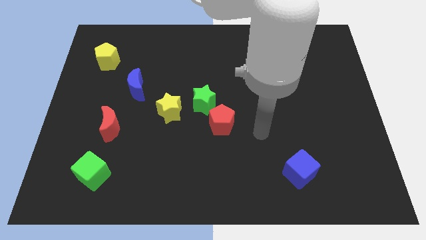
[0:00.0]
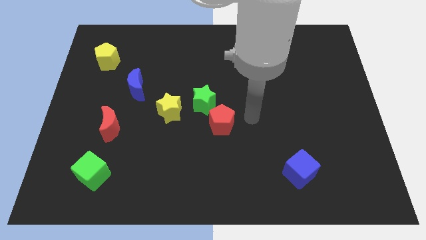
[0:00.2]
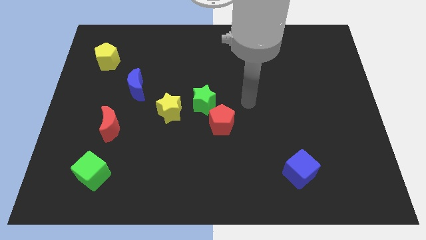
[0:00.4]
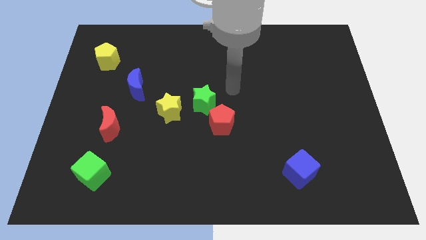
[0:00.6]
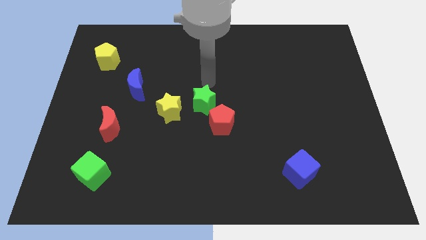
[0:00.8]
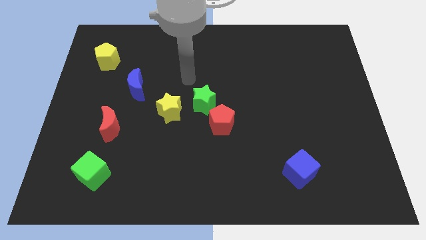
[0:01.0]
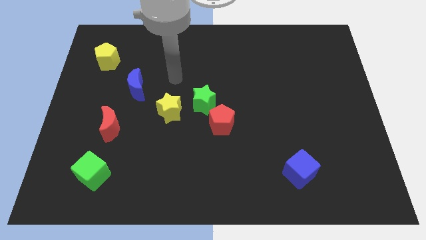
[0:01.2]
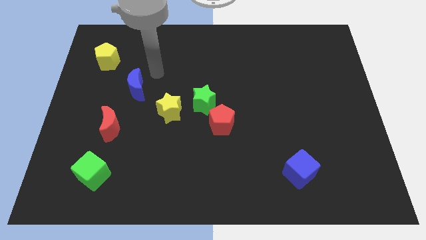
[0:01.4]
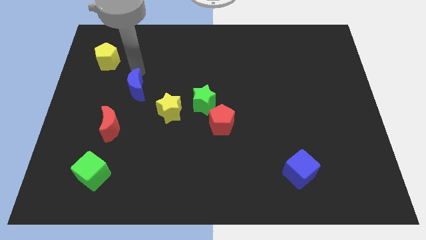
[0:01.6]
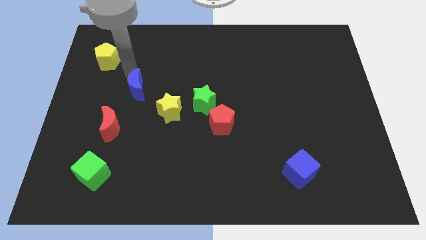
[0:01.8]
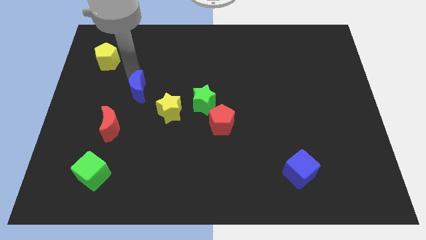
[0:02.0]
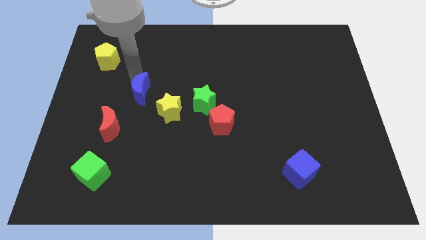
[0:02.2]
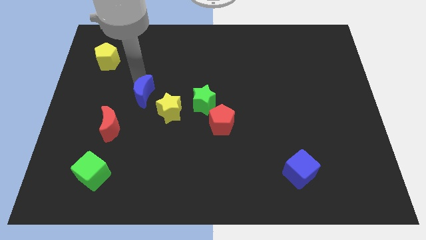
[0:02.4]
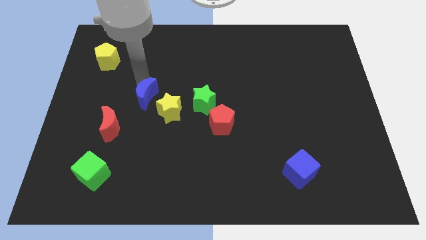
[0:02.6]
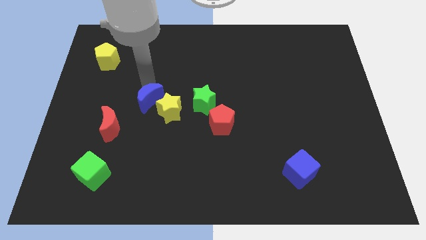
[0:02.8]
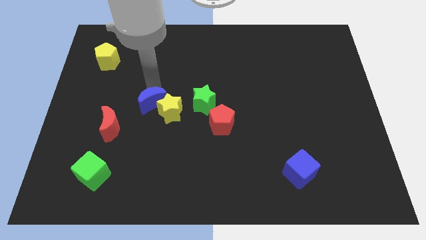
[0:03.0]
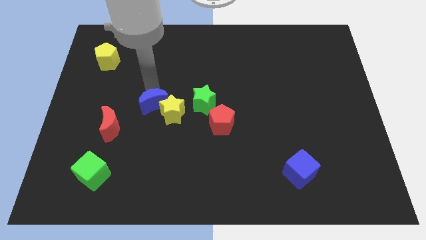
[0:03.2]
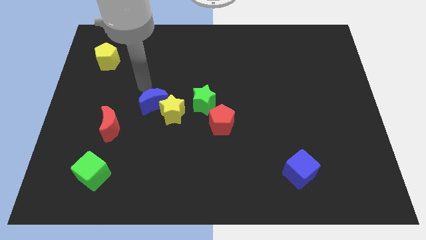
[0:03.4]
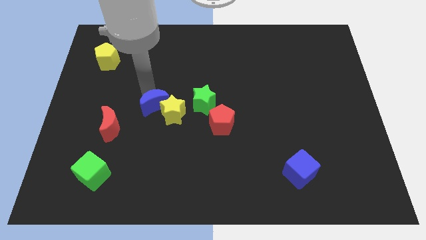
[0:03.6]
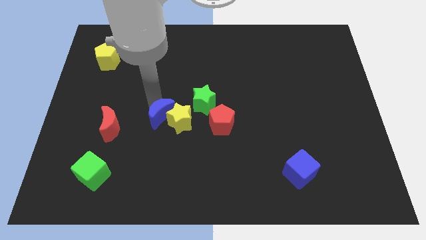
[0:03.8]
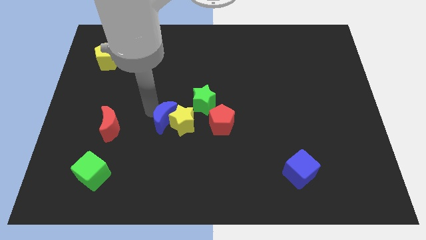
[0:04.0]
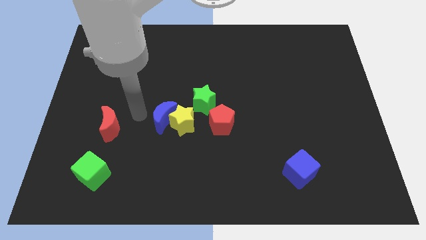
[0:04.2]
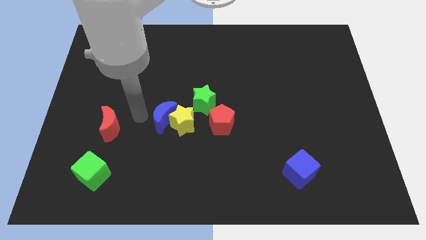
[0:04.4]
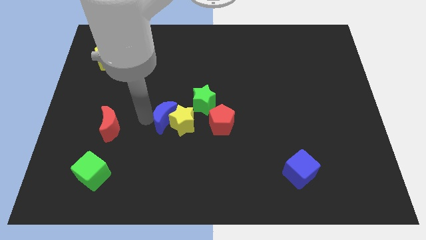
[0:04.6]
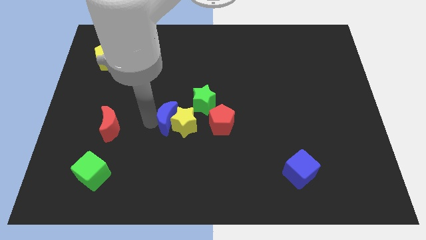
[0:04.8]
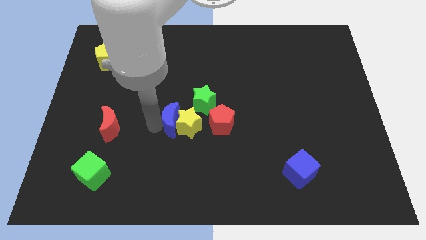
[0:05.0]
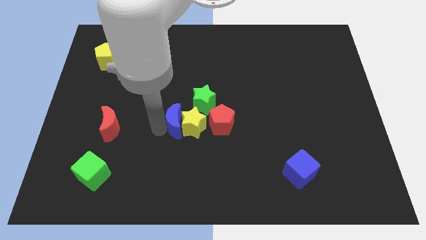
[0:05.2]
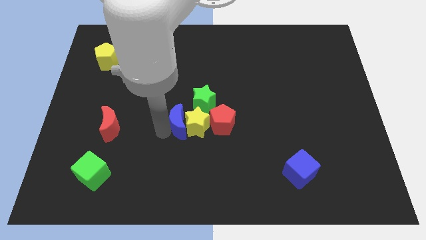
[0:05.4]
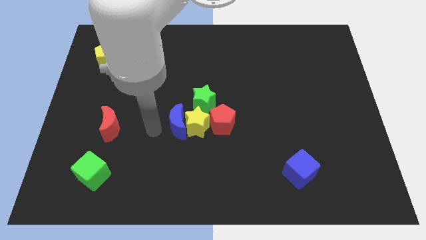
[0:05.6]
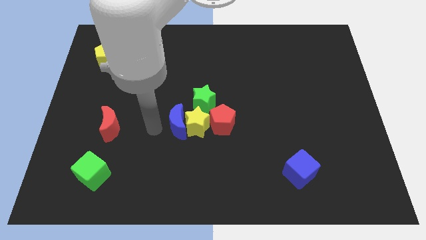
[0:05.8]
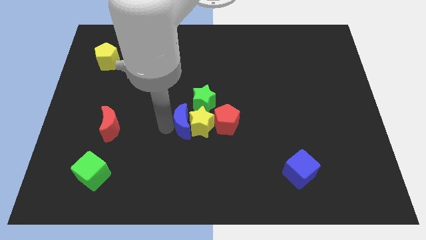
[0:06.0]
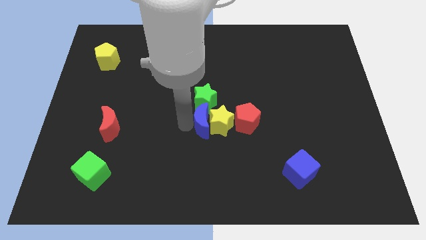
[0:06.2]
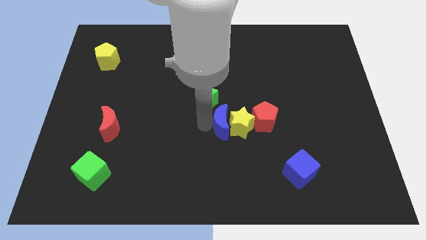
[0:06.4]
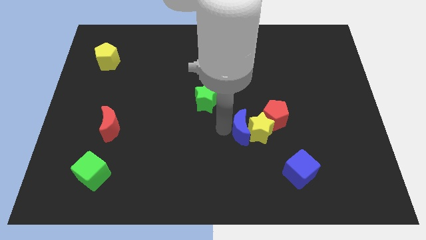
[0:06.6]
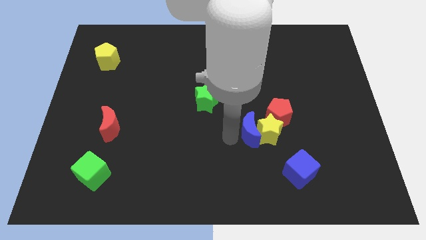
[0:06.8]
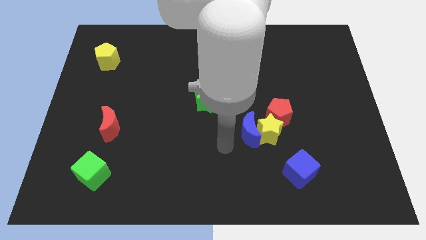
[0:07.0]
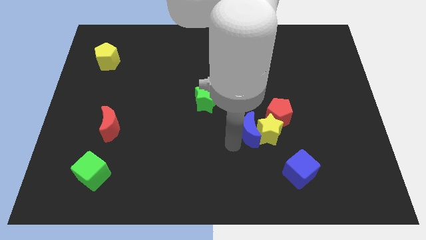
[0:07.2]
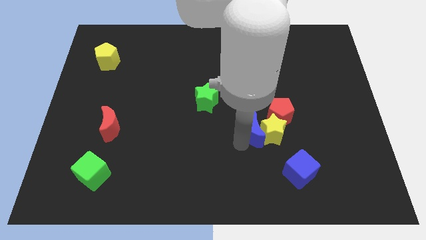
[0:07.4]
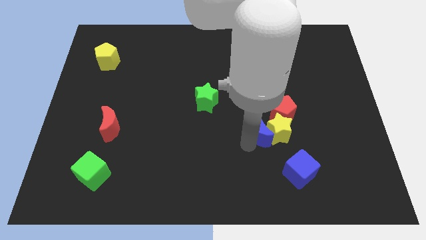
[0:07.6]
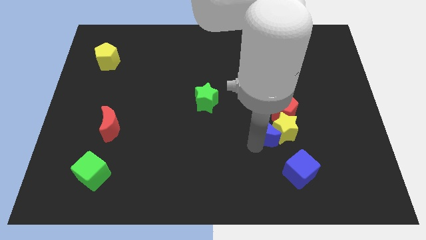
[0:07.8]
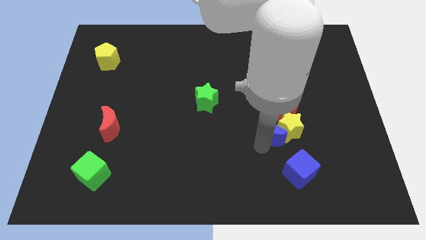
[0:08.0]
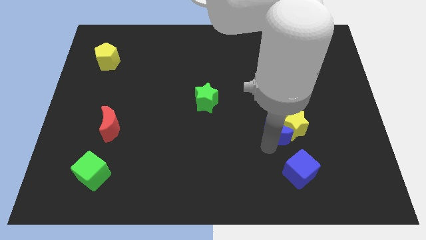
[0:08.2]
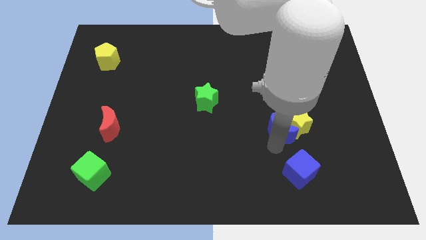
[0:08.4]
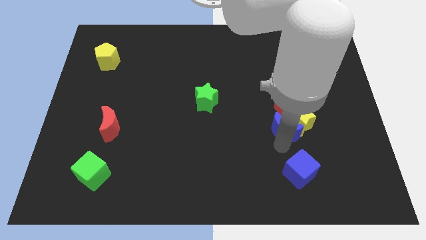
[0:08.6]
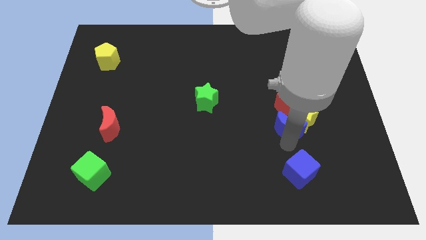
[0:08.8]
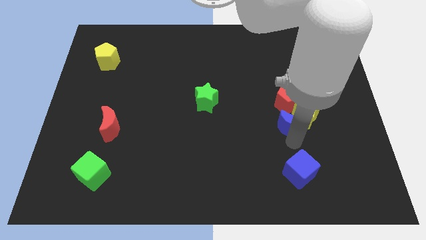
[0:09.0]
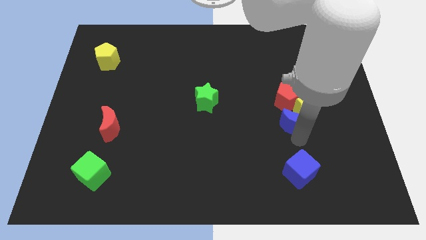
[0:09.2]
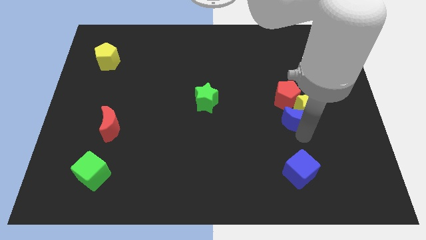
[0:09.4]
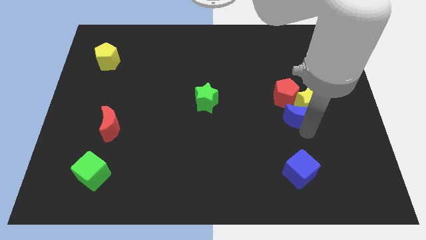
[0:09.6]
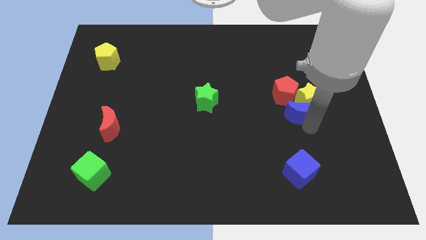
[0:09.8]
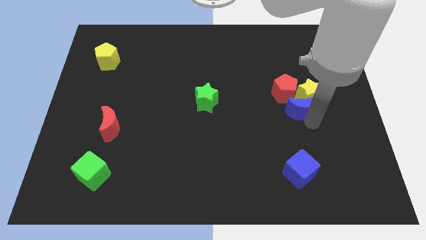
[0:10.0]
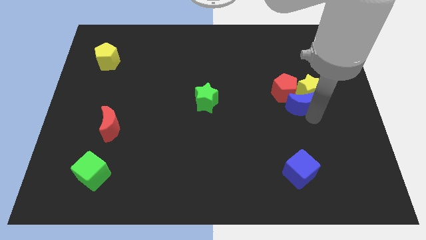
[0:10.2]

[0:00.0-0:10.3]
put the blue moon next to the red pentagon

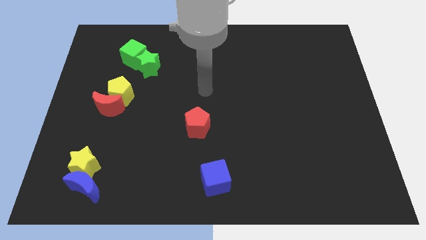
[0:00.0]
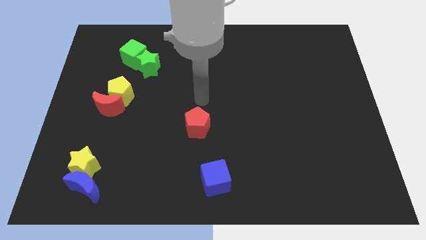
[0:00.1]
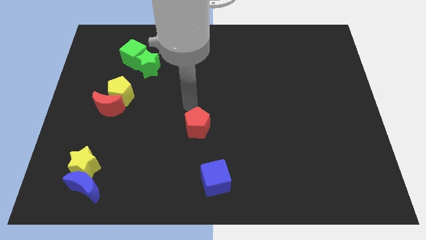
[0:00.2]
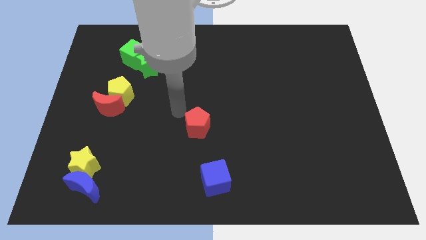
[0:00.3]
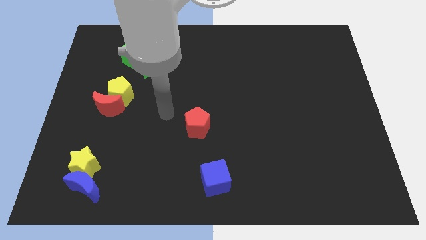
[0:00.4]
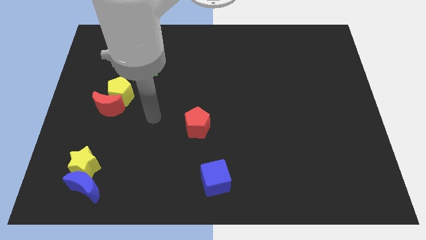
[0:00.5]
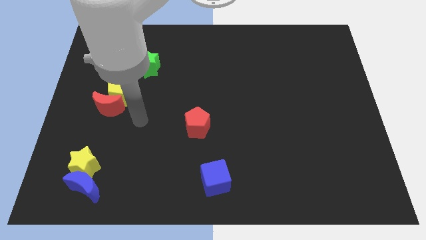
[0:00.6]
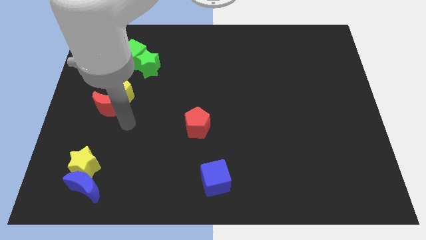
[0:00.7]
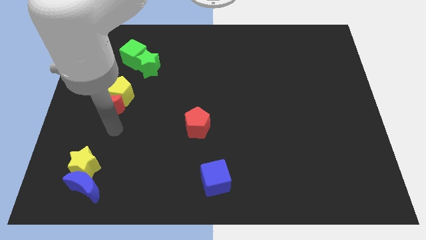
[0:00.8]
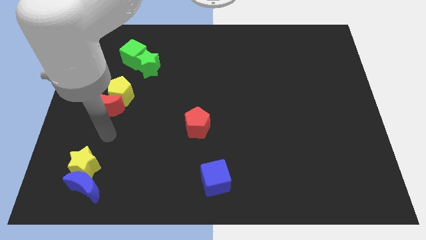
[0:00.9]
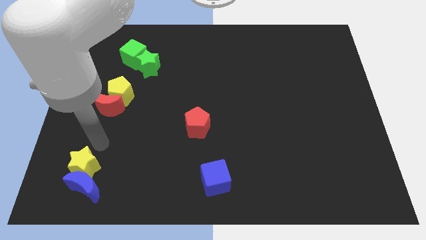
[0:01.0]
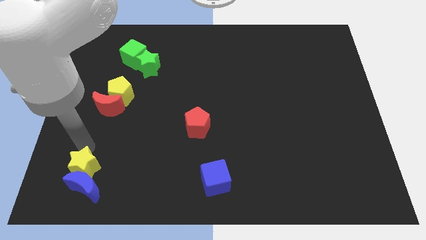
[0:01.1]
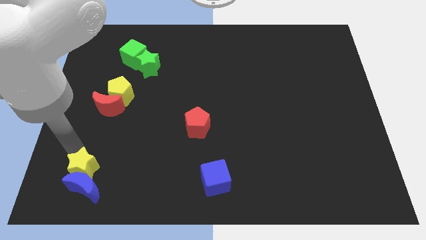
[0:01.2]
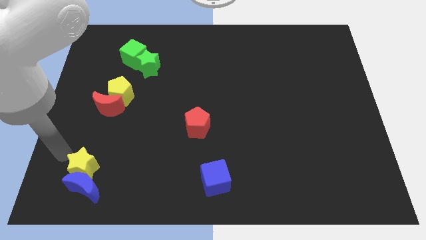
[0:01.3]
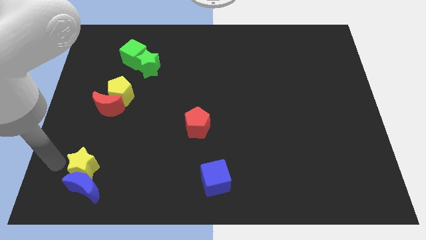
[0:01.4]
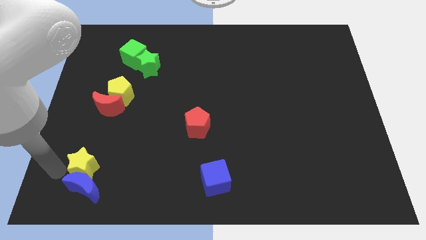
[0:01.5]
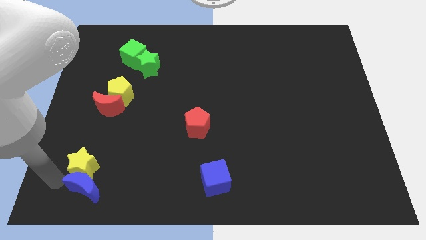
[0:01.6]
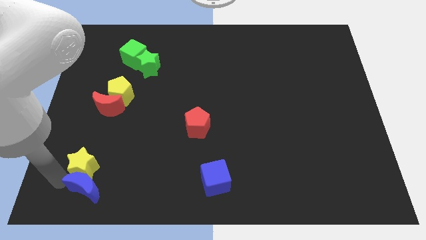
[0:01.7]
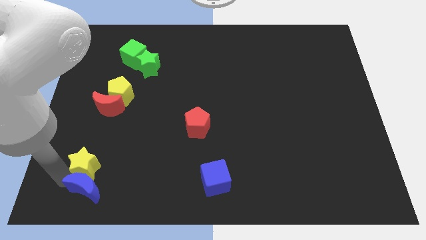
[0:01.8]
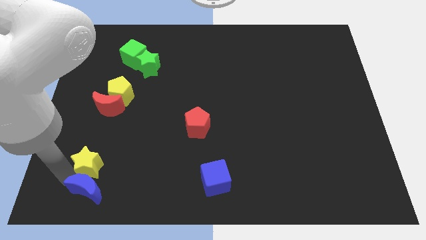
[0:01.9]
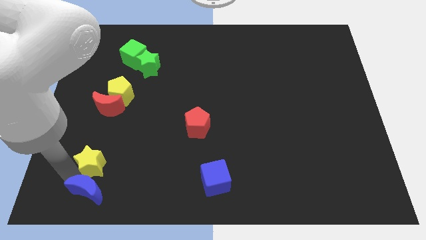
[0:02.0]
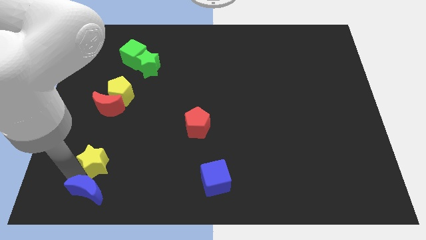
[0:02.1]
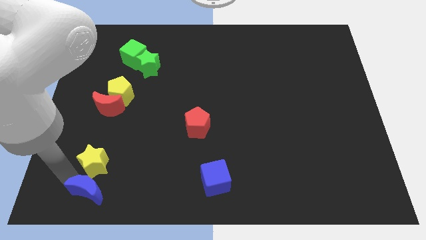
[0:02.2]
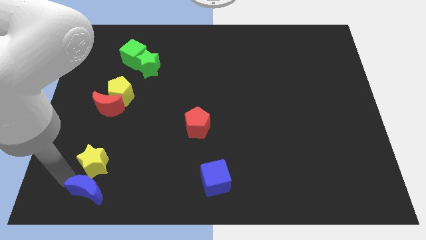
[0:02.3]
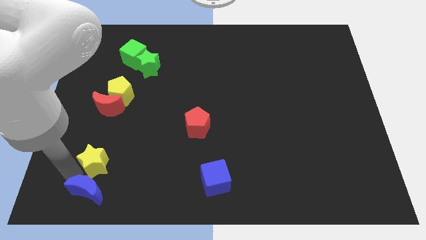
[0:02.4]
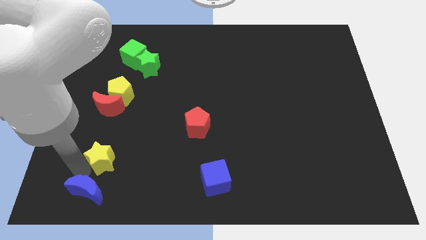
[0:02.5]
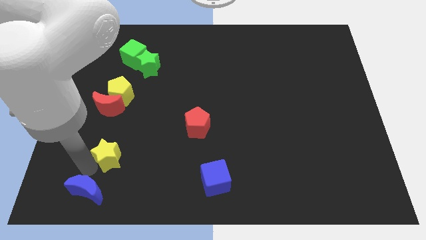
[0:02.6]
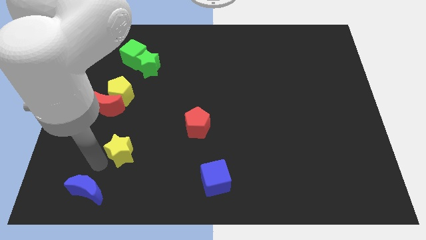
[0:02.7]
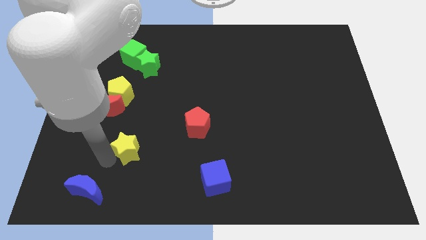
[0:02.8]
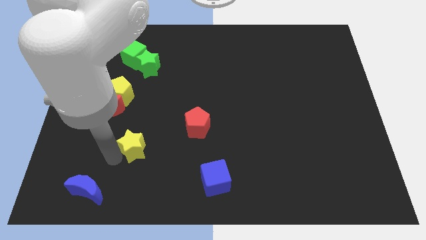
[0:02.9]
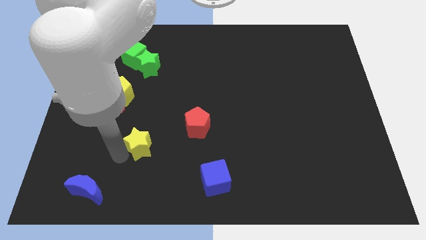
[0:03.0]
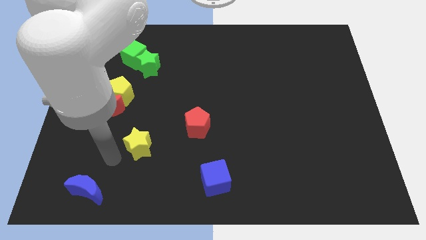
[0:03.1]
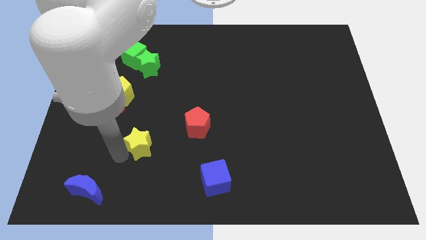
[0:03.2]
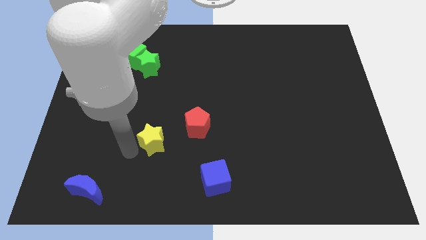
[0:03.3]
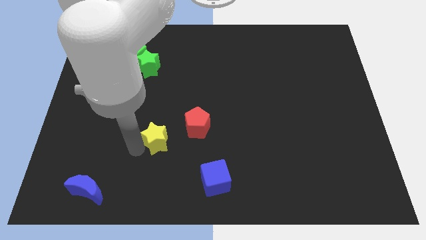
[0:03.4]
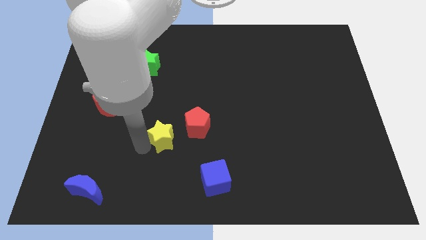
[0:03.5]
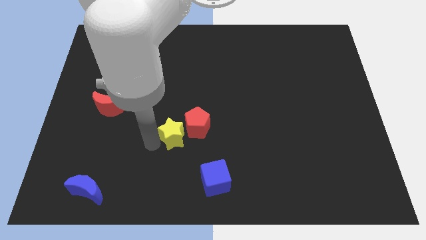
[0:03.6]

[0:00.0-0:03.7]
slide the yellow star close to the red pentagon
